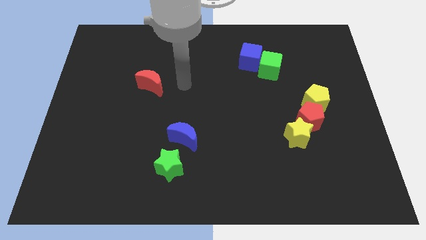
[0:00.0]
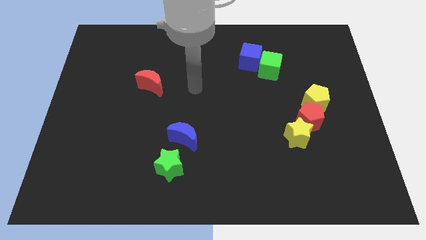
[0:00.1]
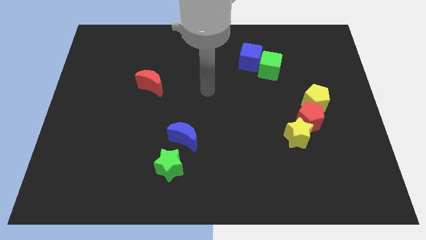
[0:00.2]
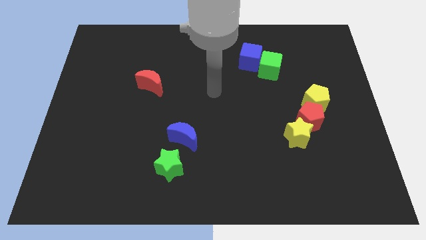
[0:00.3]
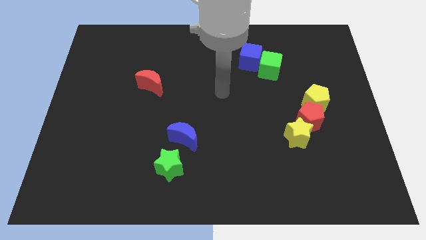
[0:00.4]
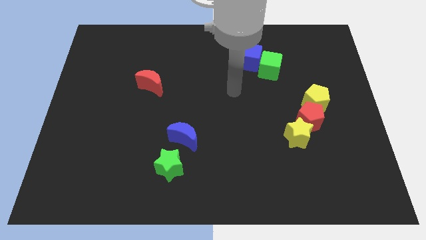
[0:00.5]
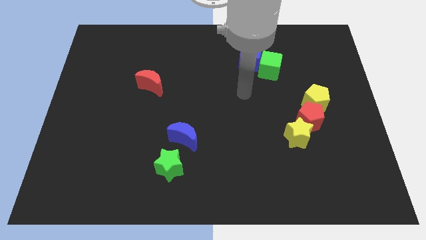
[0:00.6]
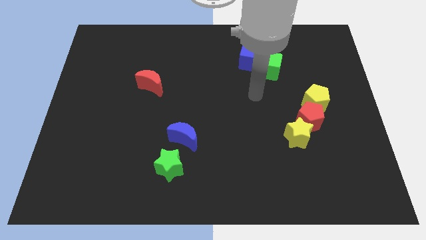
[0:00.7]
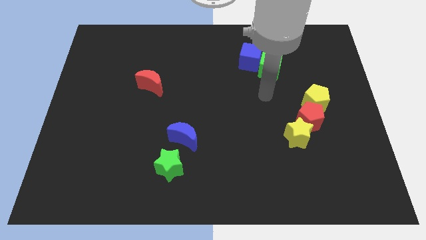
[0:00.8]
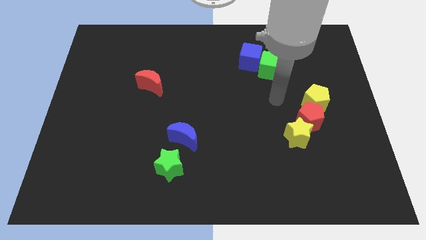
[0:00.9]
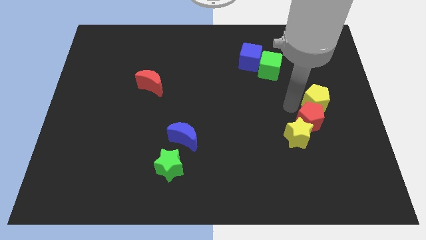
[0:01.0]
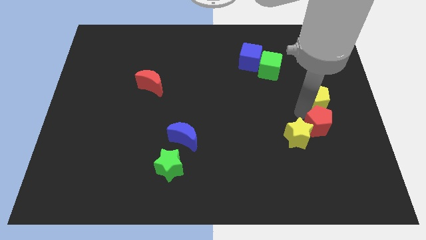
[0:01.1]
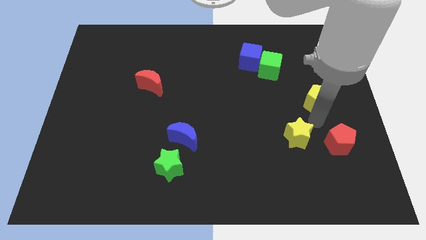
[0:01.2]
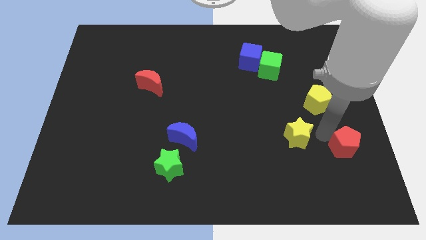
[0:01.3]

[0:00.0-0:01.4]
pull the yellow star apart from the red pentagon

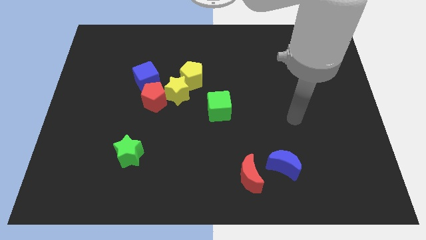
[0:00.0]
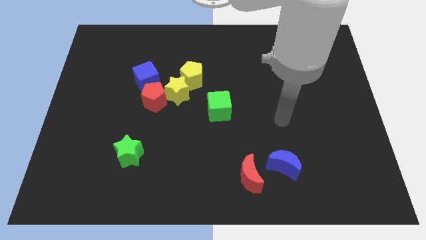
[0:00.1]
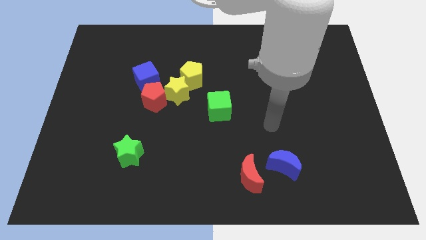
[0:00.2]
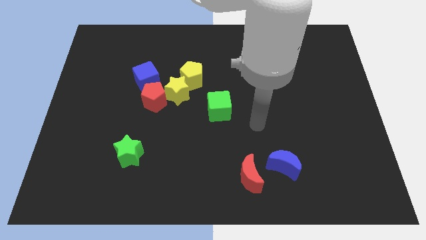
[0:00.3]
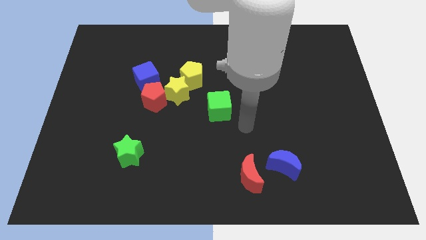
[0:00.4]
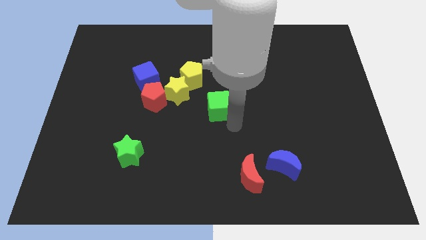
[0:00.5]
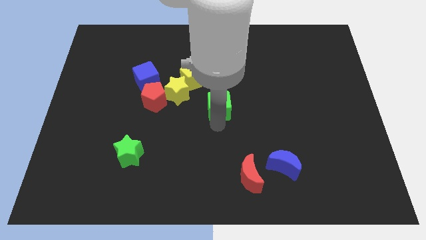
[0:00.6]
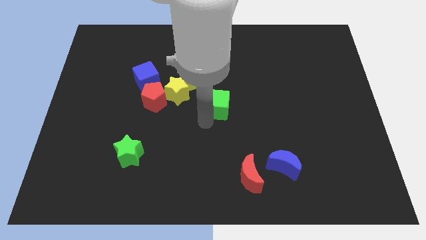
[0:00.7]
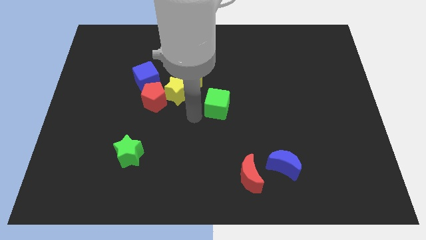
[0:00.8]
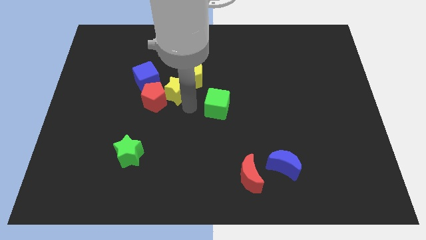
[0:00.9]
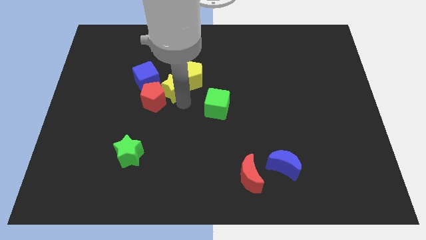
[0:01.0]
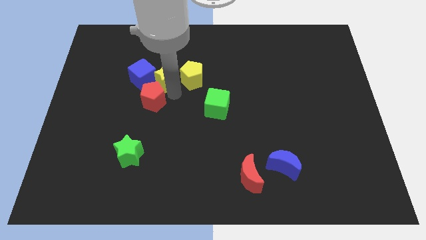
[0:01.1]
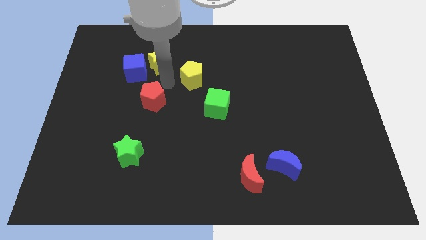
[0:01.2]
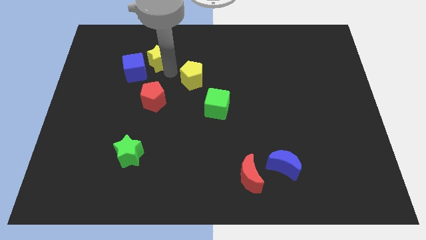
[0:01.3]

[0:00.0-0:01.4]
pull the yellow pentagon apart from the yellow star

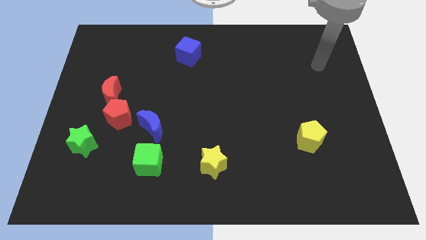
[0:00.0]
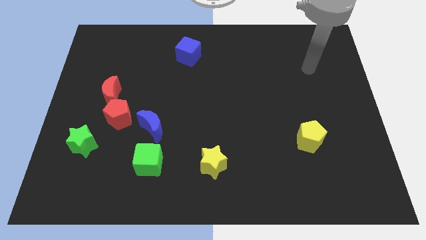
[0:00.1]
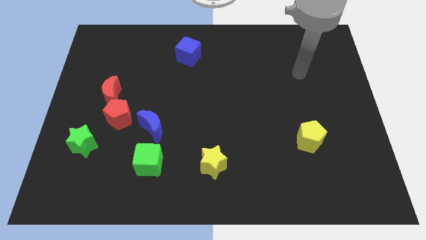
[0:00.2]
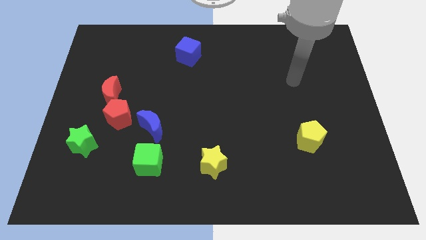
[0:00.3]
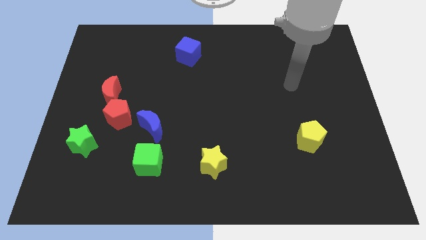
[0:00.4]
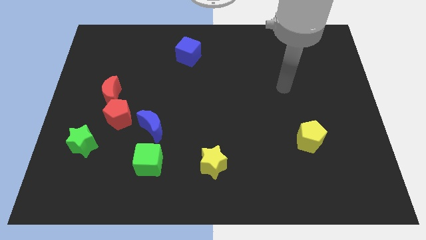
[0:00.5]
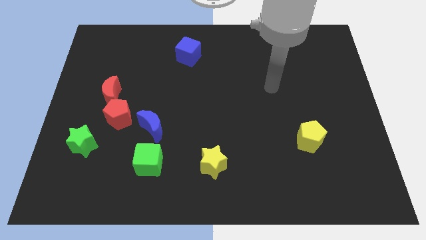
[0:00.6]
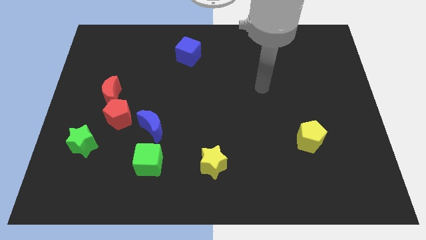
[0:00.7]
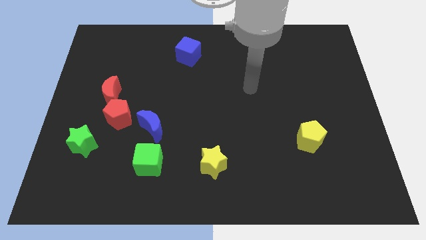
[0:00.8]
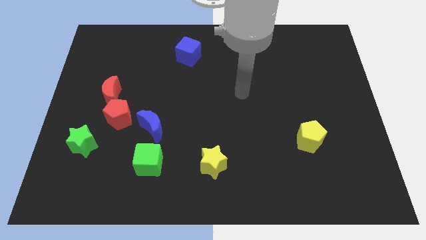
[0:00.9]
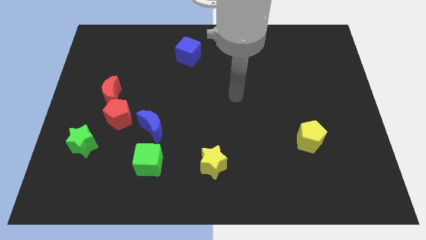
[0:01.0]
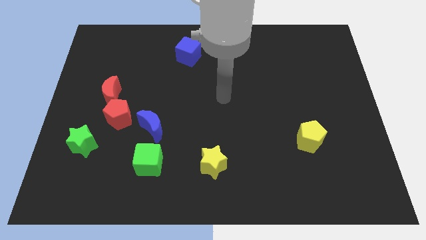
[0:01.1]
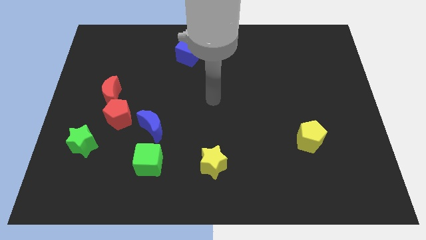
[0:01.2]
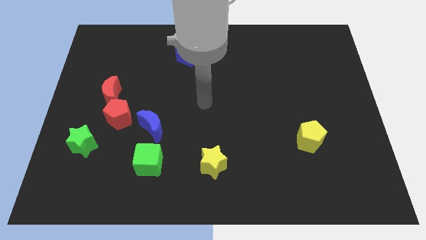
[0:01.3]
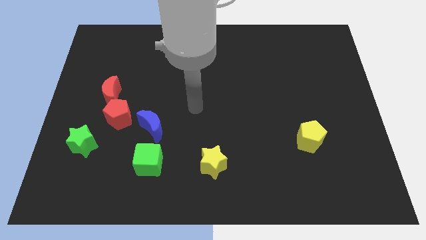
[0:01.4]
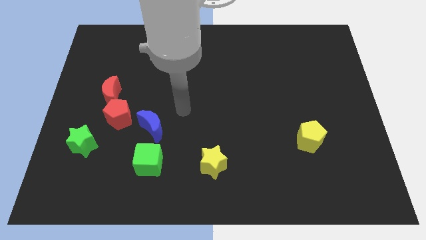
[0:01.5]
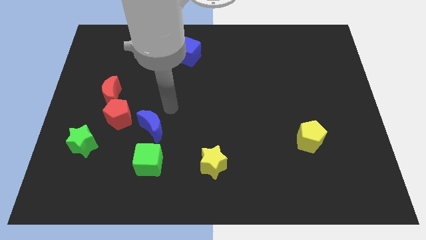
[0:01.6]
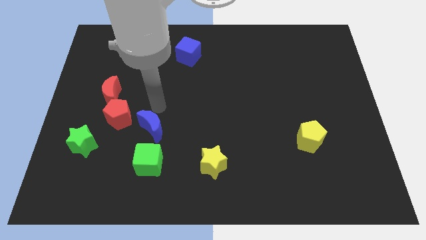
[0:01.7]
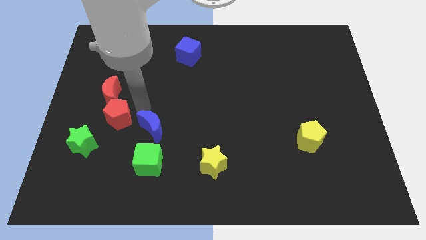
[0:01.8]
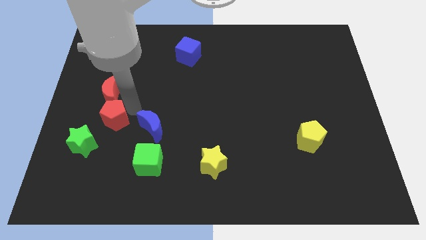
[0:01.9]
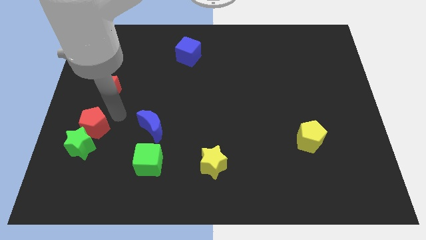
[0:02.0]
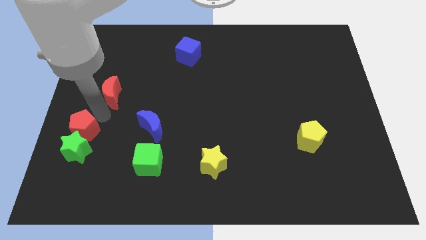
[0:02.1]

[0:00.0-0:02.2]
separate the red moon from the red pentagon

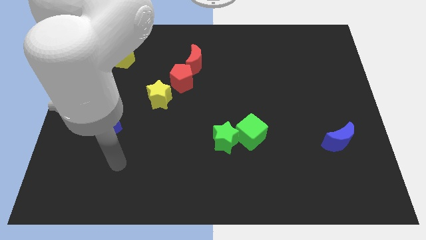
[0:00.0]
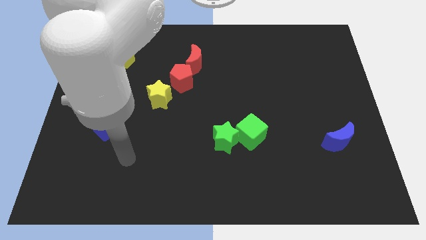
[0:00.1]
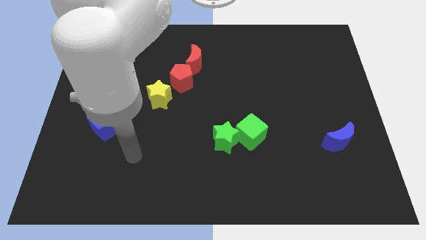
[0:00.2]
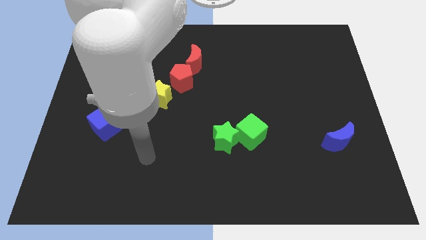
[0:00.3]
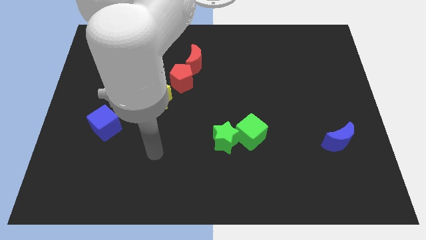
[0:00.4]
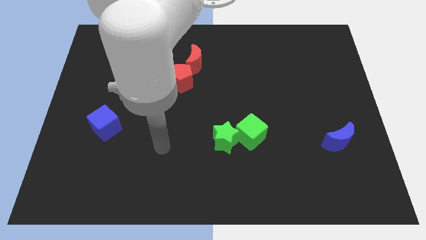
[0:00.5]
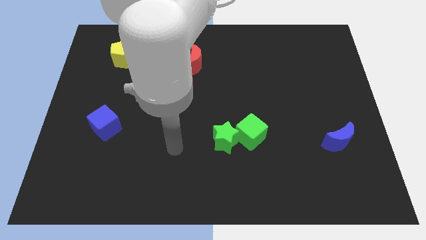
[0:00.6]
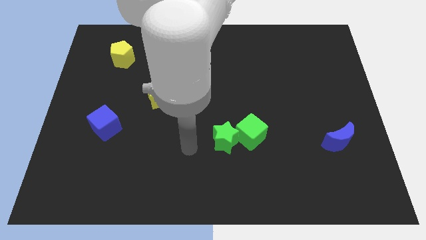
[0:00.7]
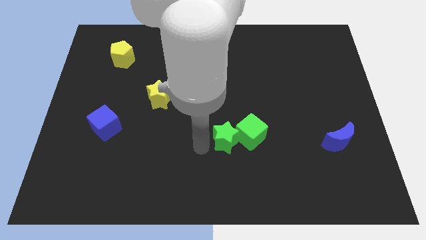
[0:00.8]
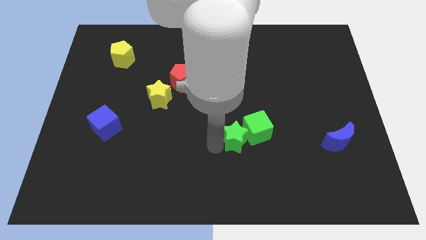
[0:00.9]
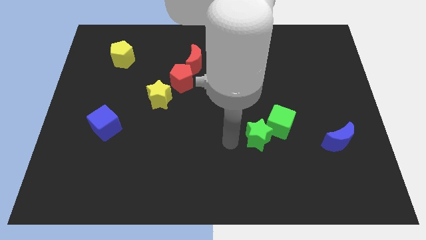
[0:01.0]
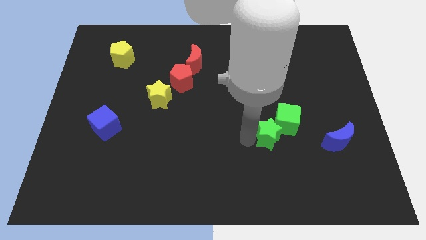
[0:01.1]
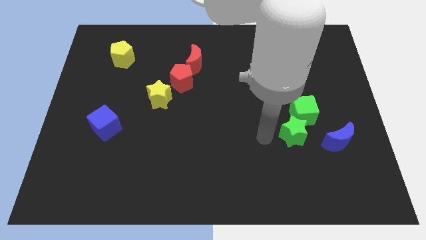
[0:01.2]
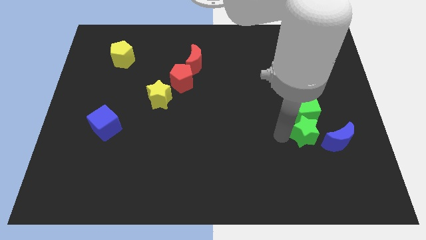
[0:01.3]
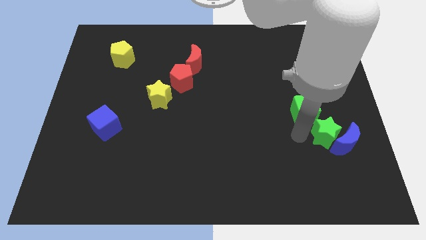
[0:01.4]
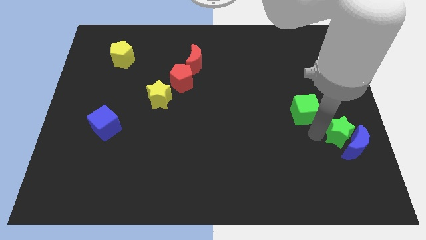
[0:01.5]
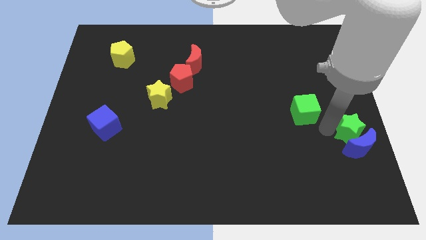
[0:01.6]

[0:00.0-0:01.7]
separate the green cube from the green star

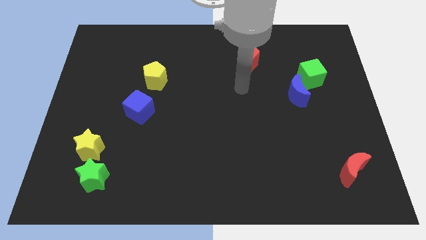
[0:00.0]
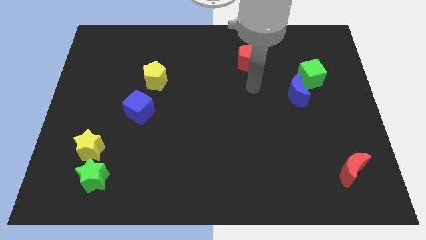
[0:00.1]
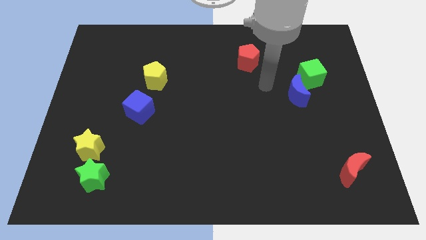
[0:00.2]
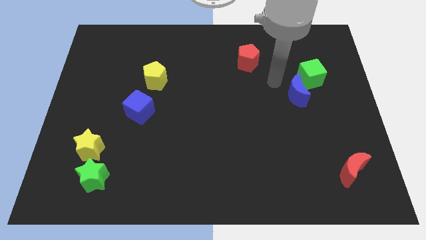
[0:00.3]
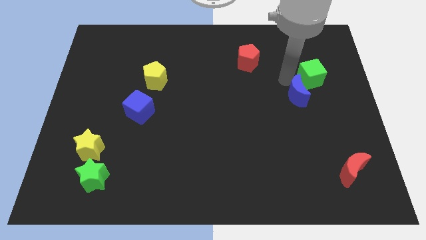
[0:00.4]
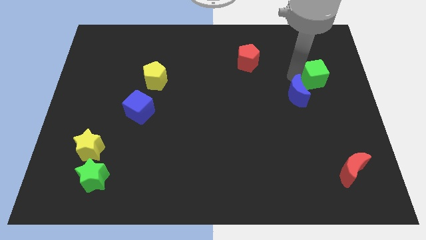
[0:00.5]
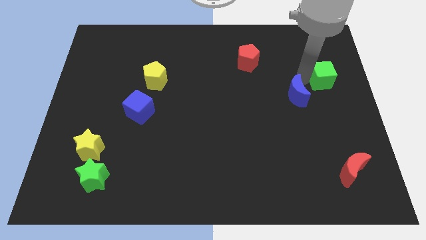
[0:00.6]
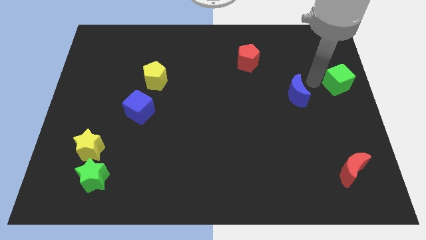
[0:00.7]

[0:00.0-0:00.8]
move the blue moon away from the green cube

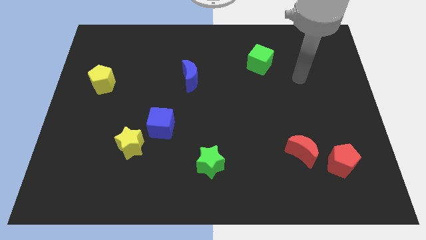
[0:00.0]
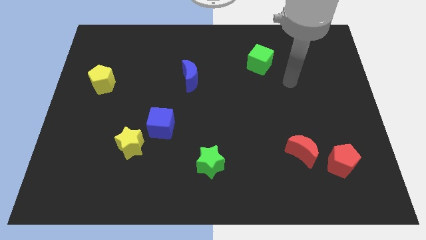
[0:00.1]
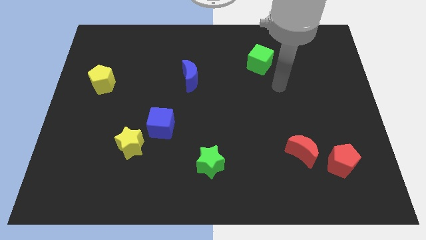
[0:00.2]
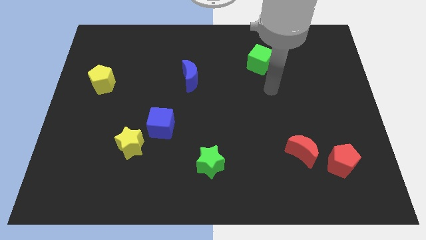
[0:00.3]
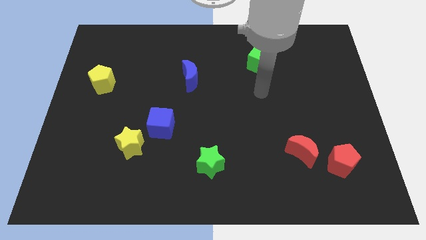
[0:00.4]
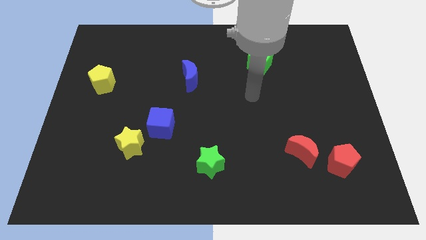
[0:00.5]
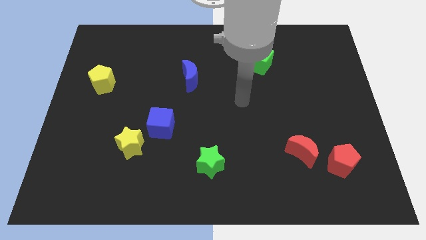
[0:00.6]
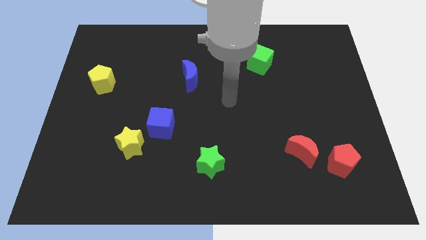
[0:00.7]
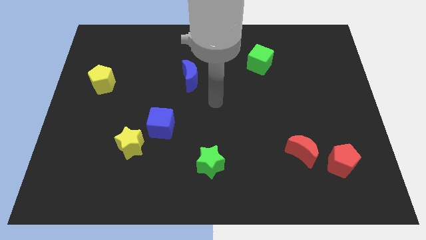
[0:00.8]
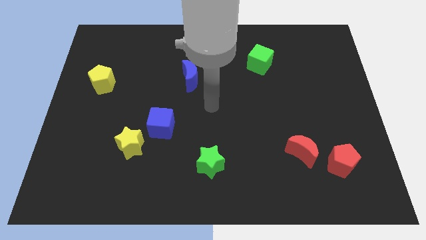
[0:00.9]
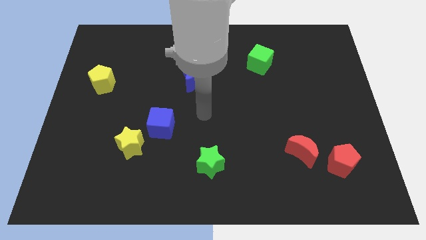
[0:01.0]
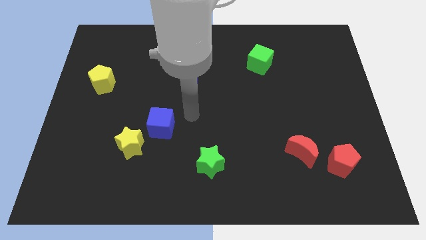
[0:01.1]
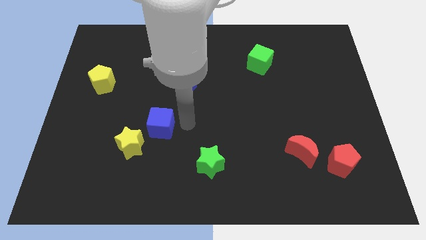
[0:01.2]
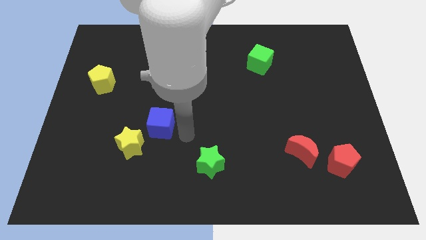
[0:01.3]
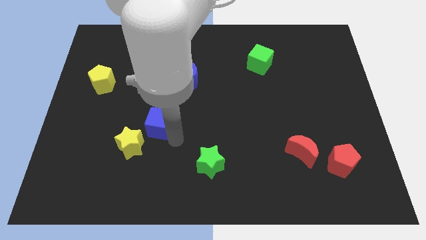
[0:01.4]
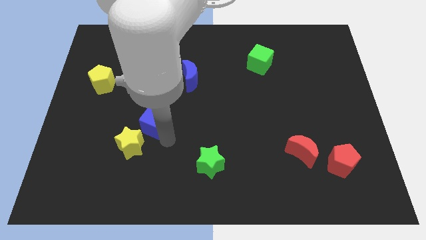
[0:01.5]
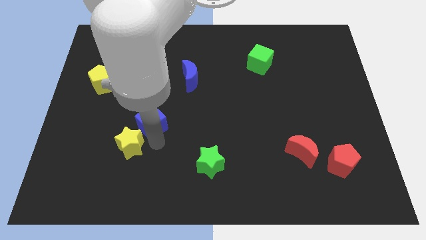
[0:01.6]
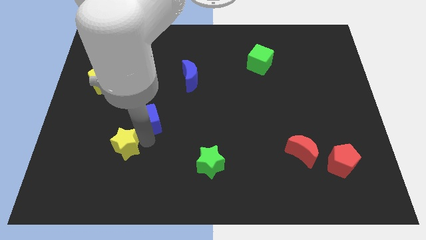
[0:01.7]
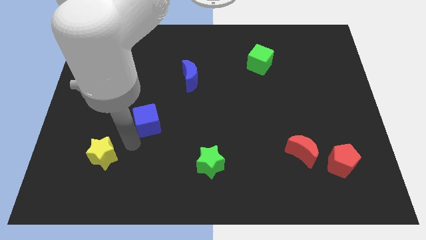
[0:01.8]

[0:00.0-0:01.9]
move the blue cube away from the yellow star
